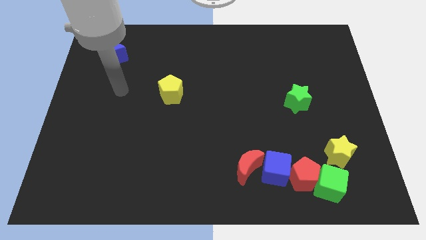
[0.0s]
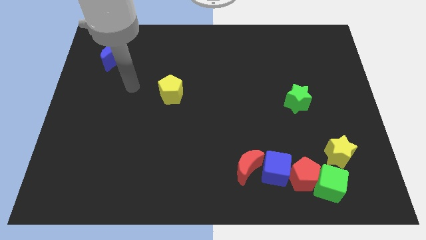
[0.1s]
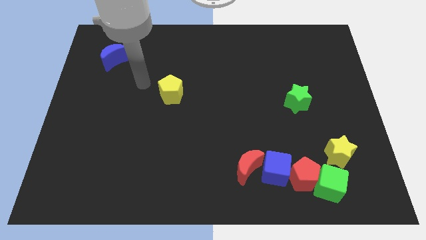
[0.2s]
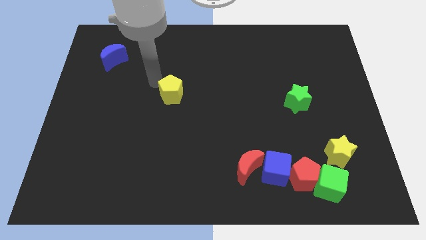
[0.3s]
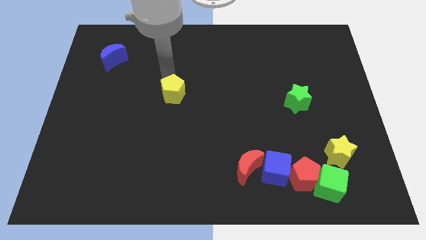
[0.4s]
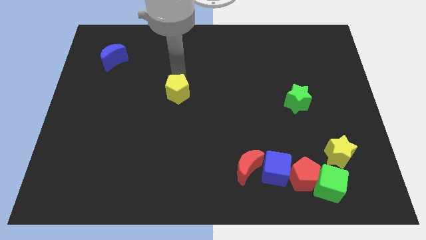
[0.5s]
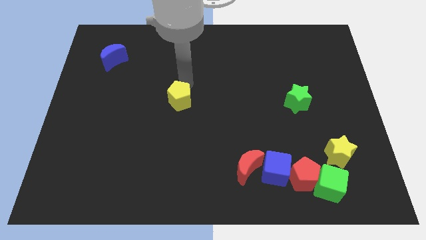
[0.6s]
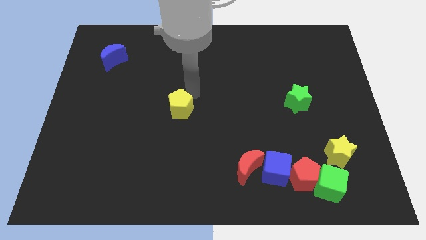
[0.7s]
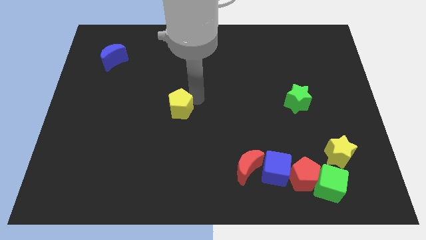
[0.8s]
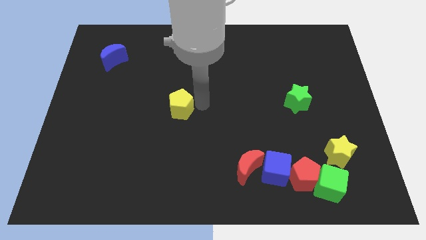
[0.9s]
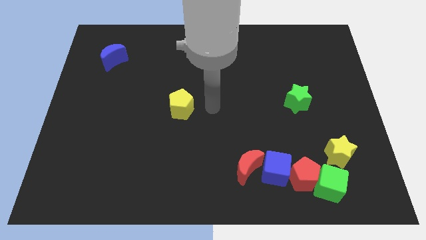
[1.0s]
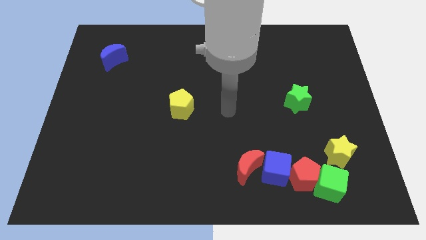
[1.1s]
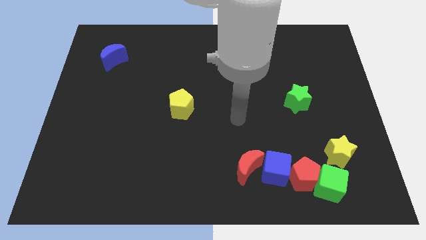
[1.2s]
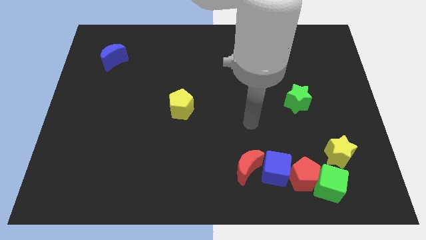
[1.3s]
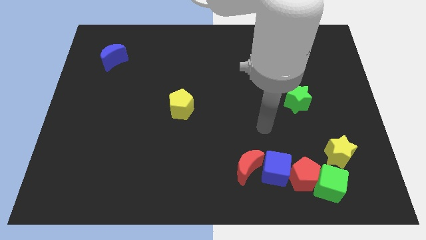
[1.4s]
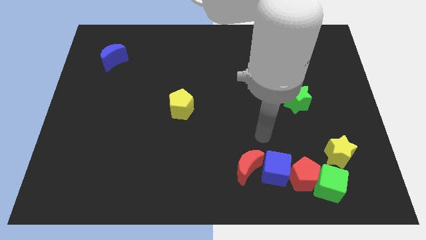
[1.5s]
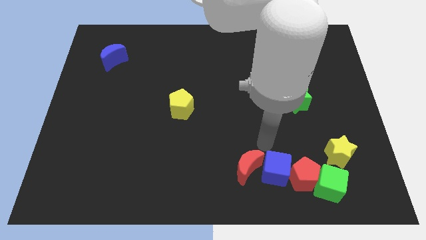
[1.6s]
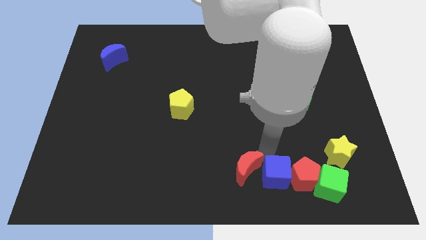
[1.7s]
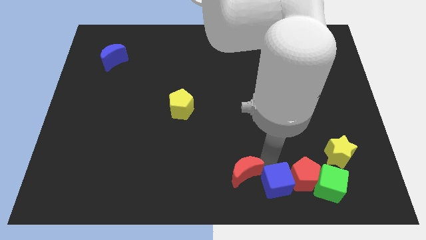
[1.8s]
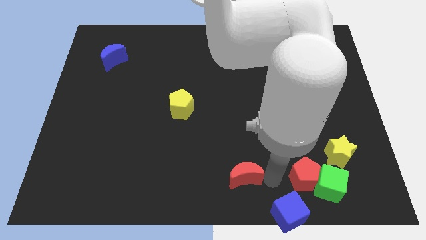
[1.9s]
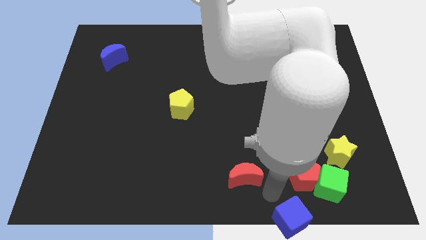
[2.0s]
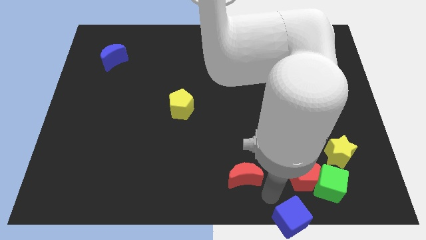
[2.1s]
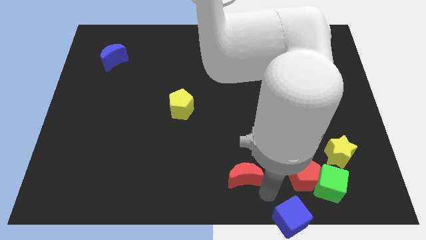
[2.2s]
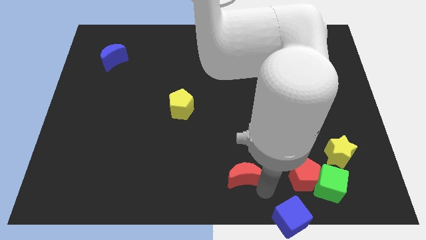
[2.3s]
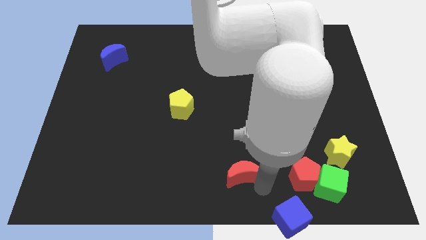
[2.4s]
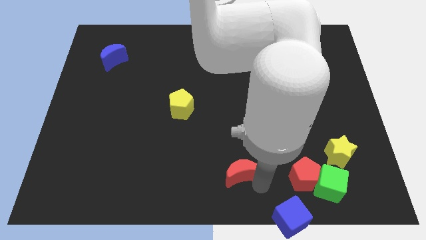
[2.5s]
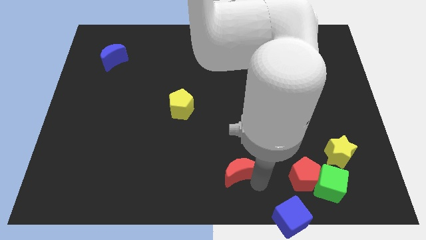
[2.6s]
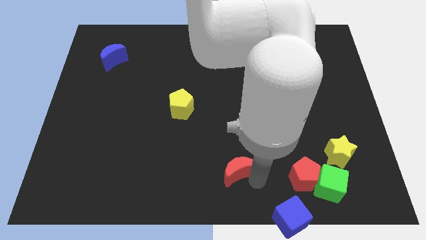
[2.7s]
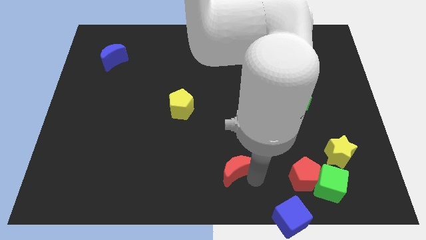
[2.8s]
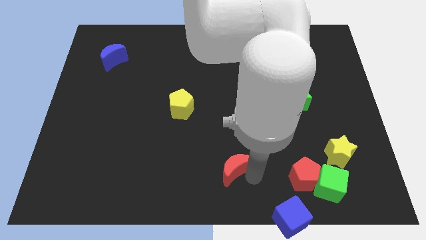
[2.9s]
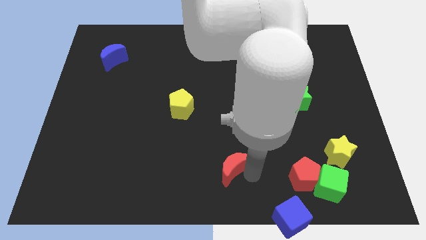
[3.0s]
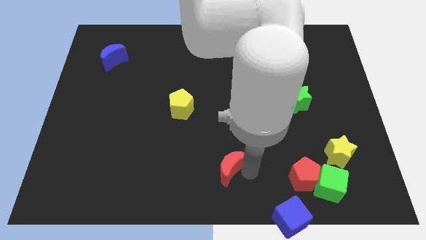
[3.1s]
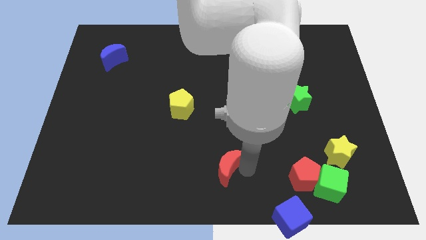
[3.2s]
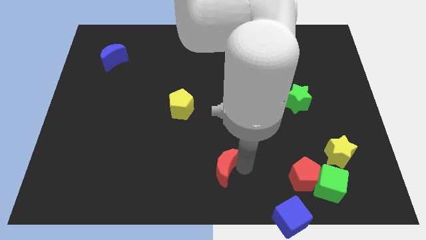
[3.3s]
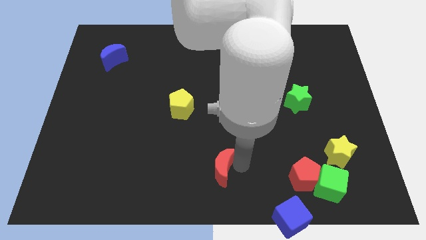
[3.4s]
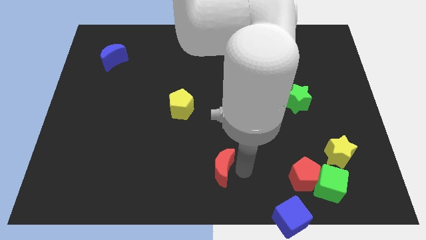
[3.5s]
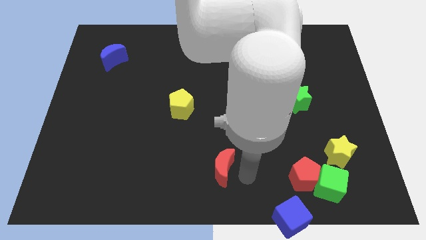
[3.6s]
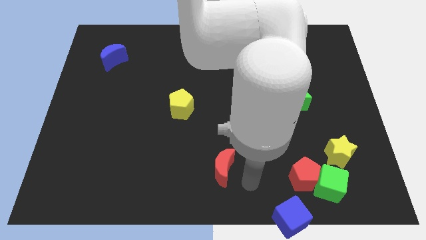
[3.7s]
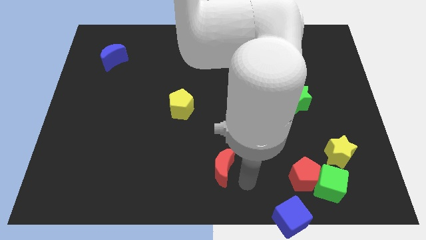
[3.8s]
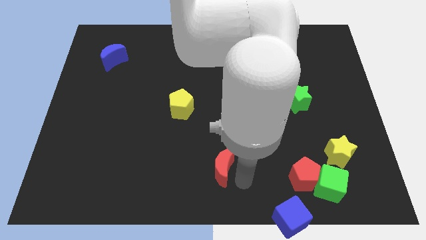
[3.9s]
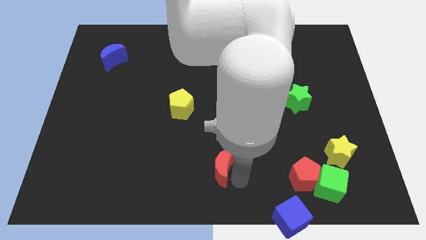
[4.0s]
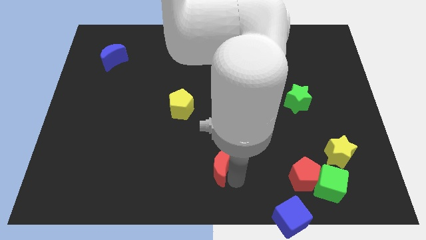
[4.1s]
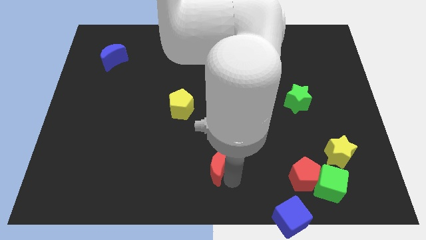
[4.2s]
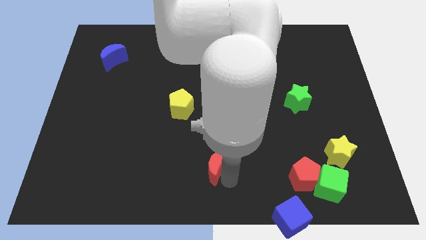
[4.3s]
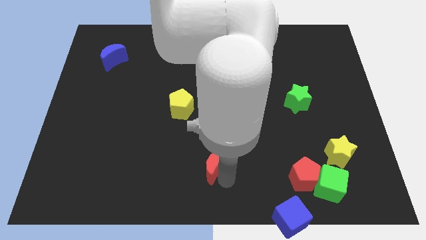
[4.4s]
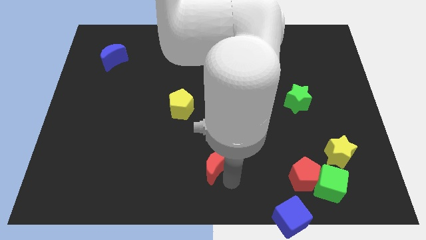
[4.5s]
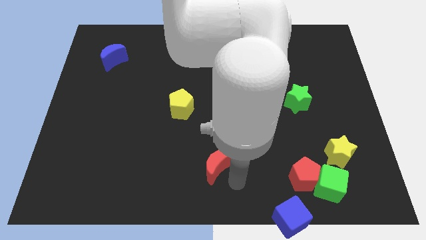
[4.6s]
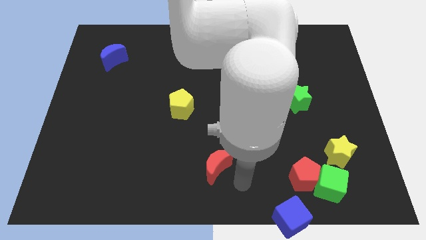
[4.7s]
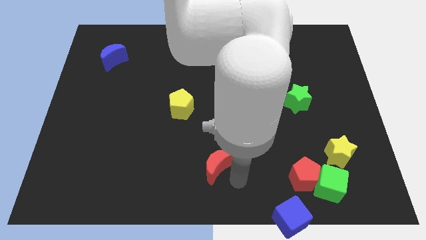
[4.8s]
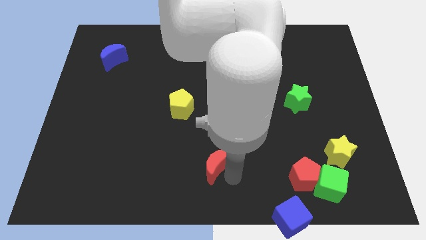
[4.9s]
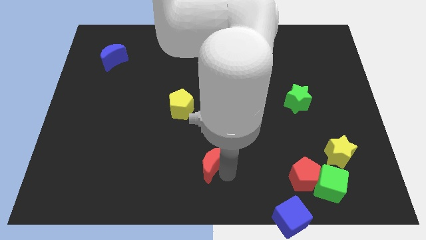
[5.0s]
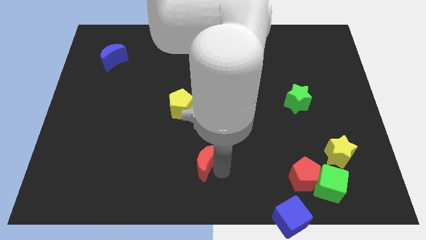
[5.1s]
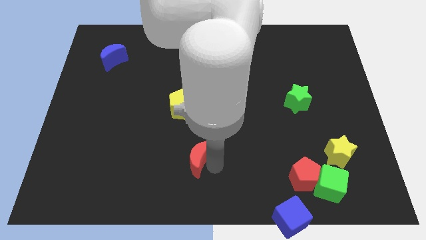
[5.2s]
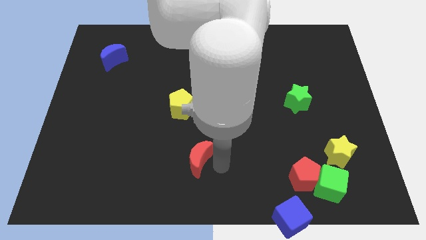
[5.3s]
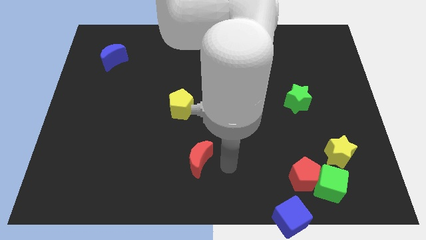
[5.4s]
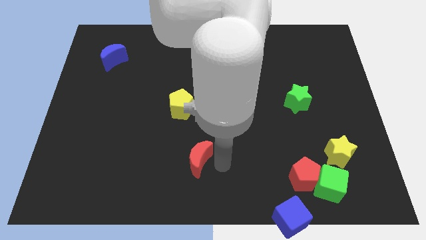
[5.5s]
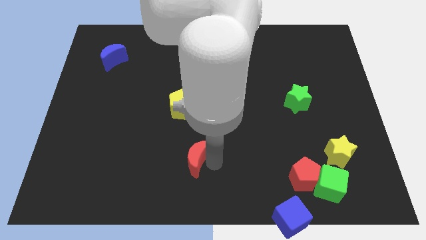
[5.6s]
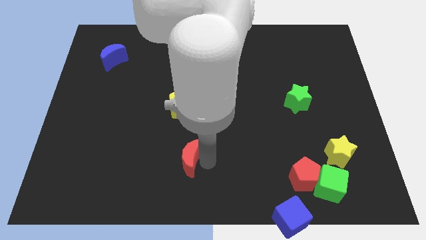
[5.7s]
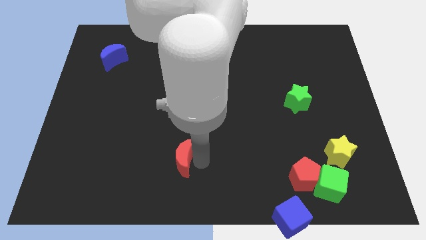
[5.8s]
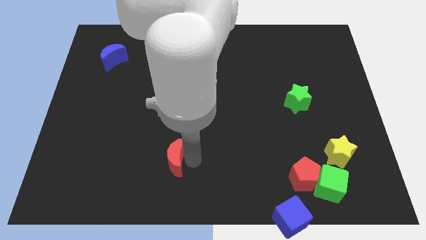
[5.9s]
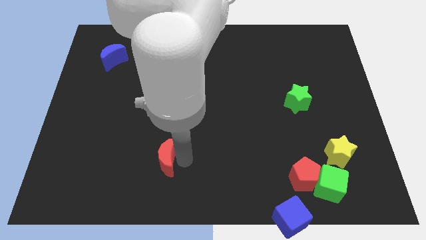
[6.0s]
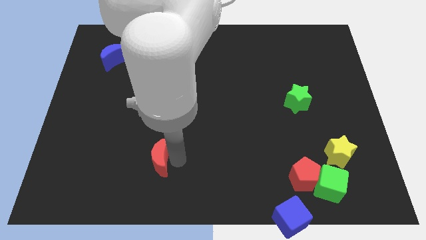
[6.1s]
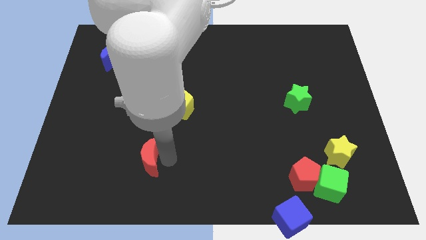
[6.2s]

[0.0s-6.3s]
push the red moon to the left

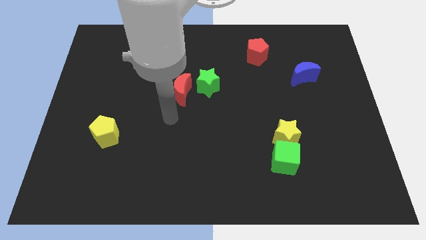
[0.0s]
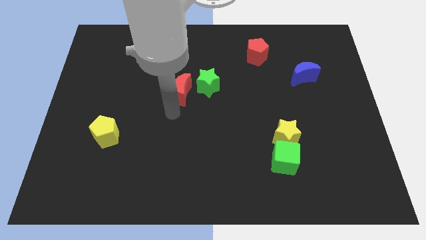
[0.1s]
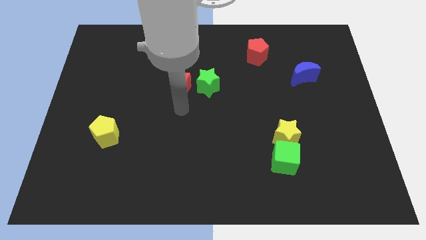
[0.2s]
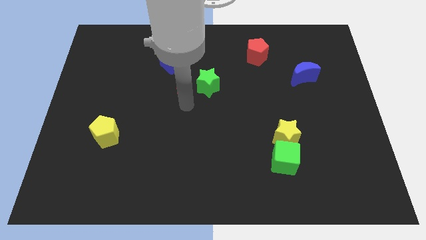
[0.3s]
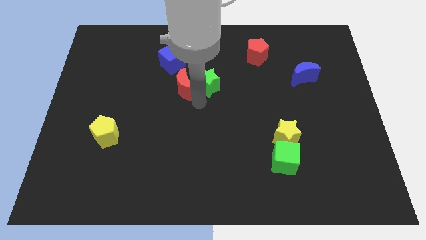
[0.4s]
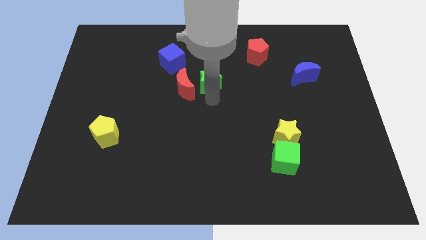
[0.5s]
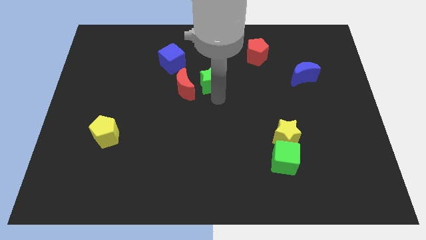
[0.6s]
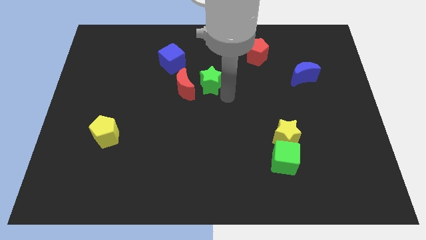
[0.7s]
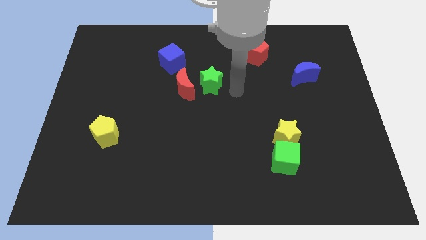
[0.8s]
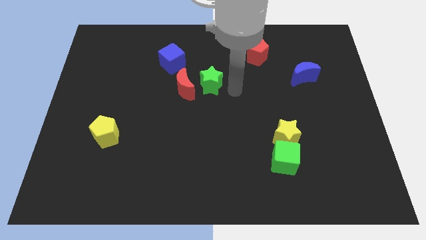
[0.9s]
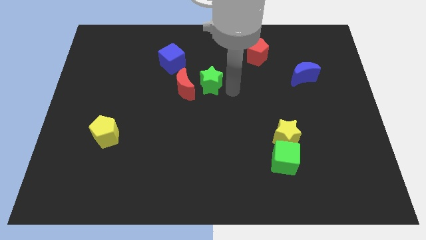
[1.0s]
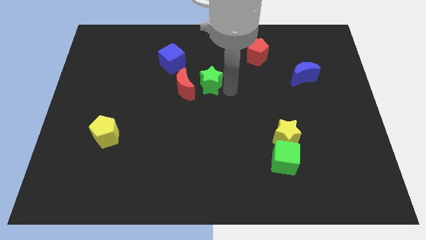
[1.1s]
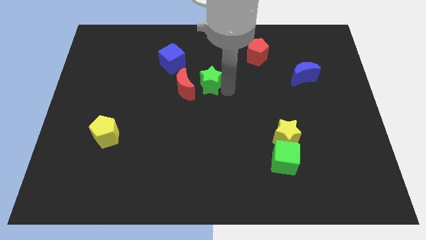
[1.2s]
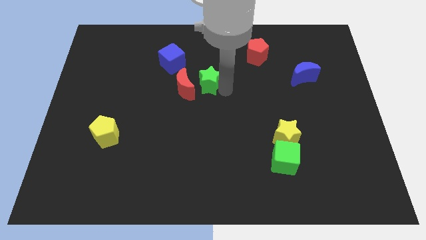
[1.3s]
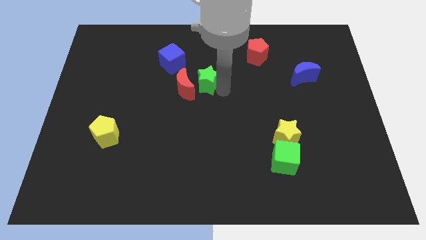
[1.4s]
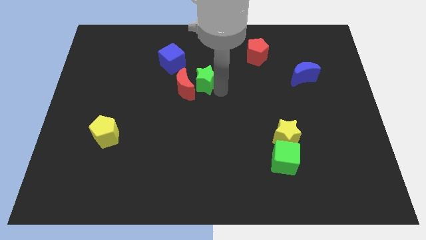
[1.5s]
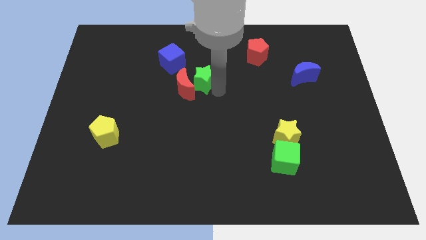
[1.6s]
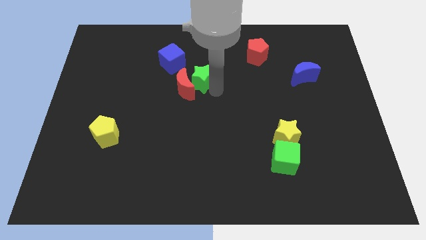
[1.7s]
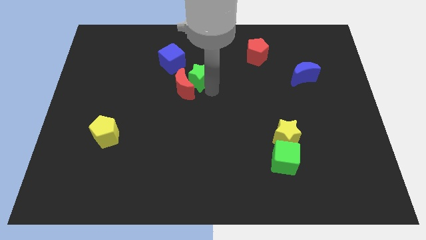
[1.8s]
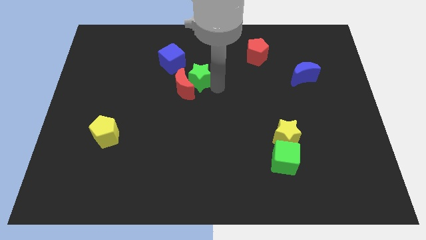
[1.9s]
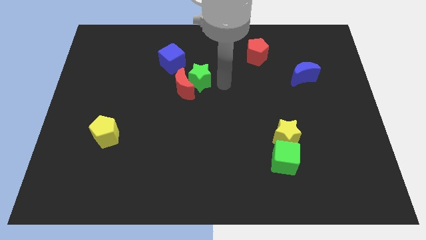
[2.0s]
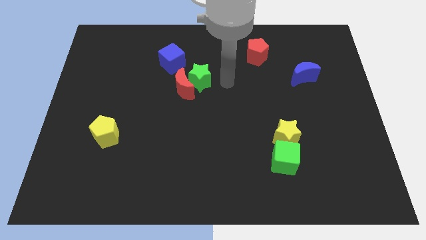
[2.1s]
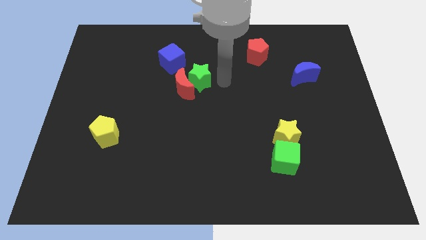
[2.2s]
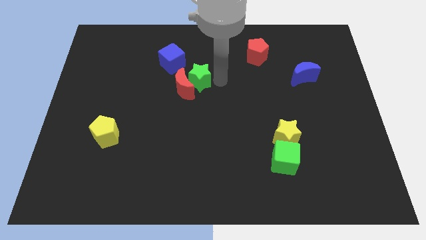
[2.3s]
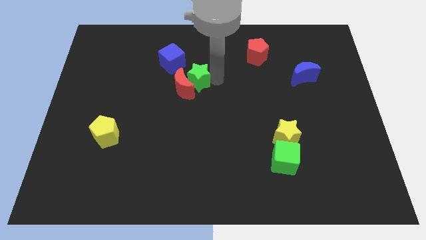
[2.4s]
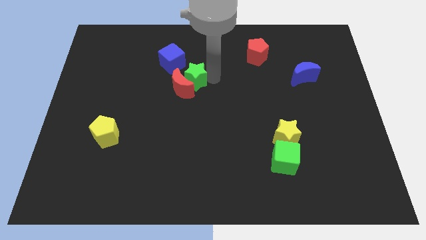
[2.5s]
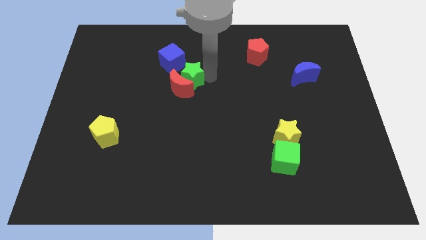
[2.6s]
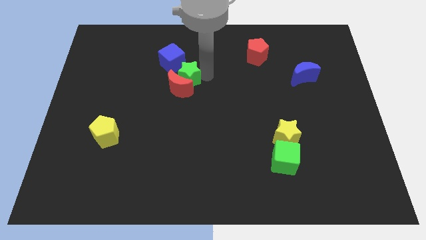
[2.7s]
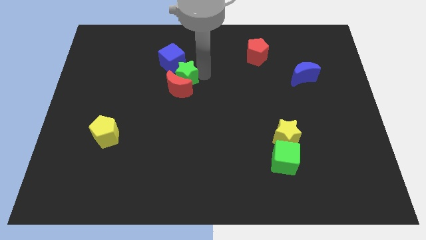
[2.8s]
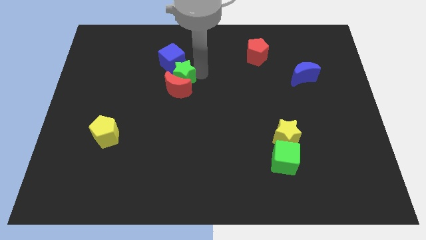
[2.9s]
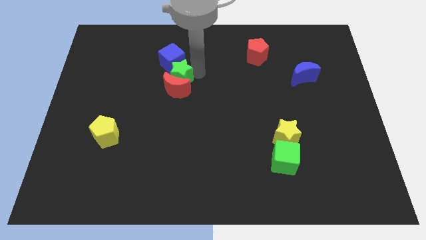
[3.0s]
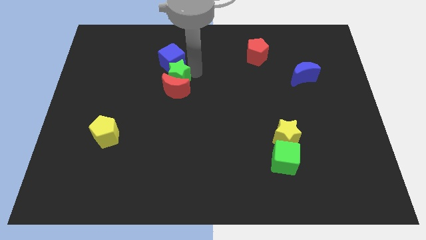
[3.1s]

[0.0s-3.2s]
push the green star to the left slightly
